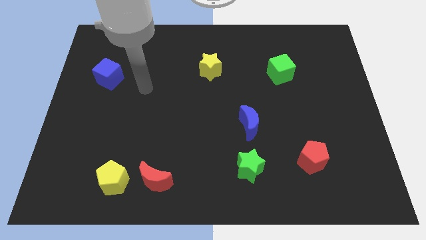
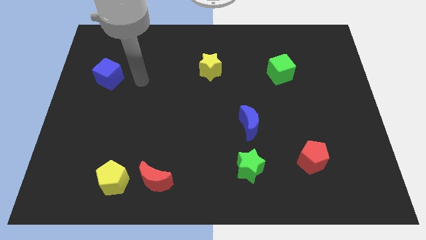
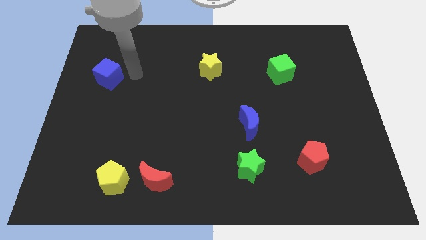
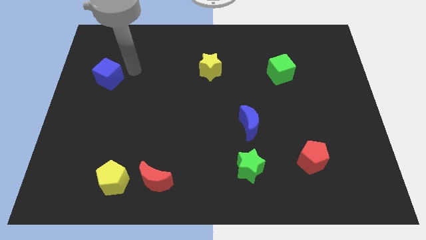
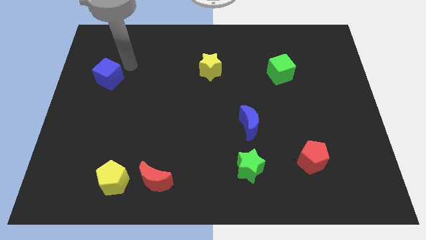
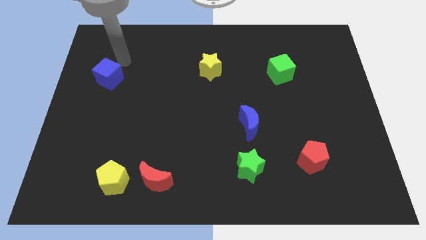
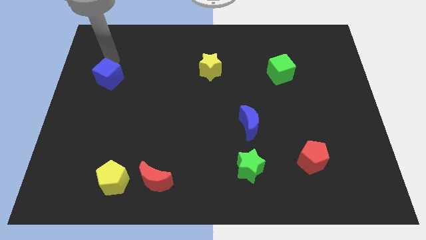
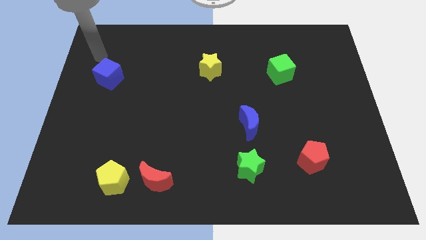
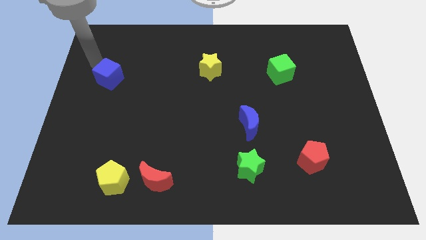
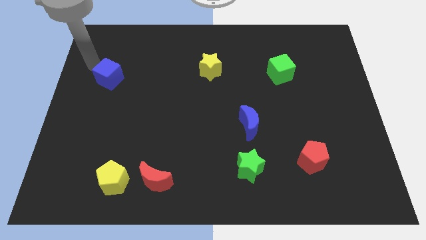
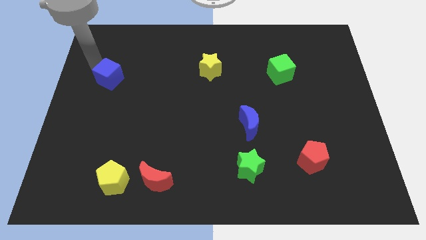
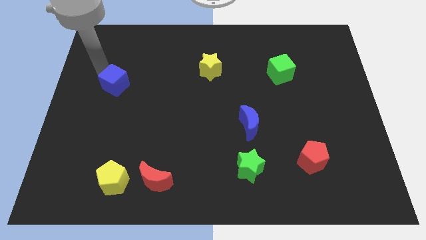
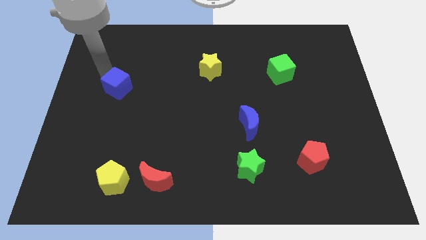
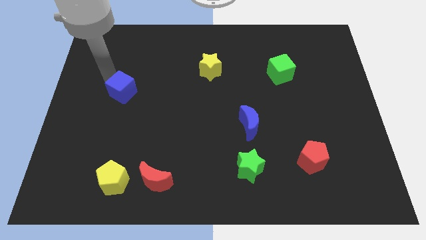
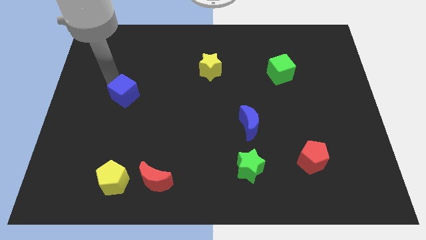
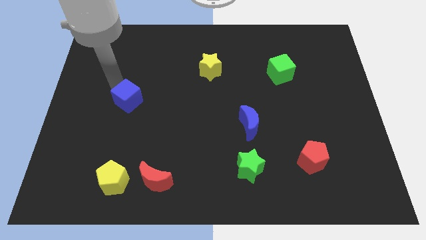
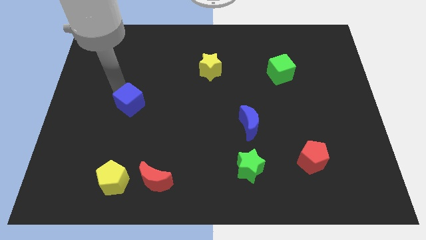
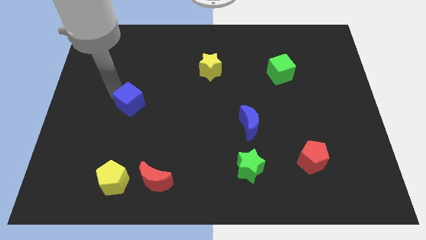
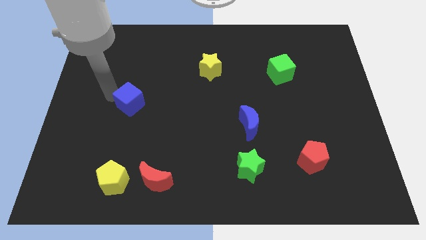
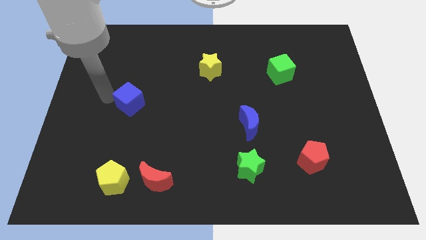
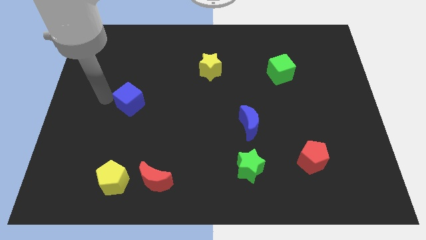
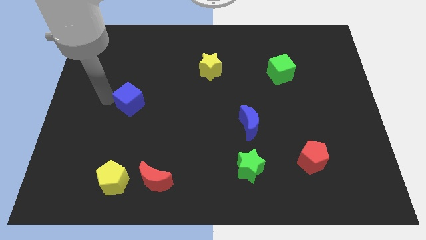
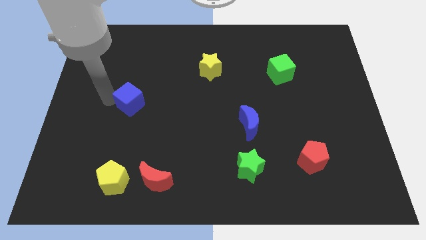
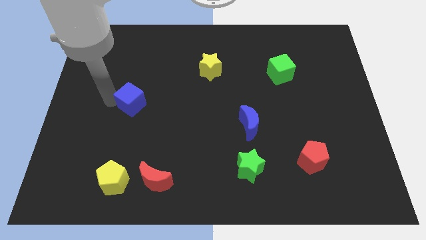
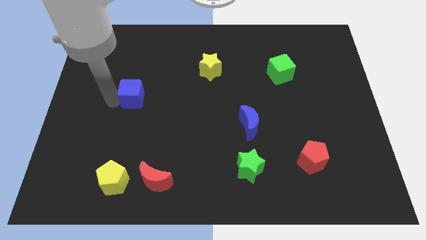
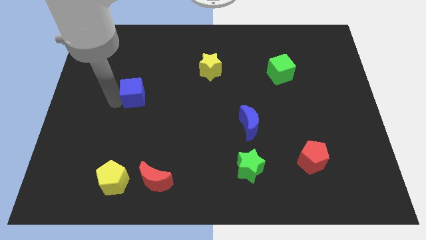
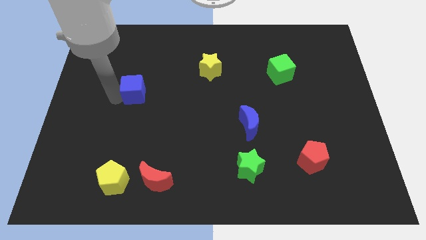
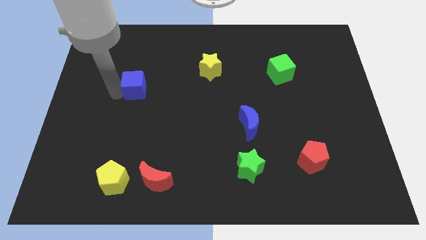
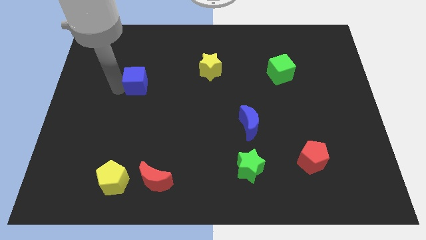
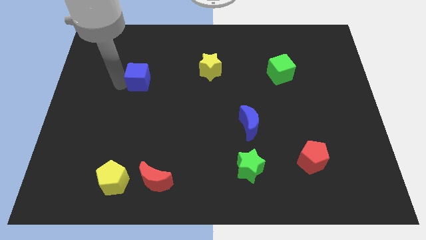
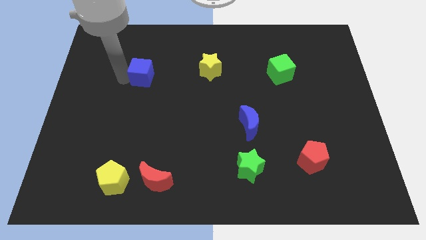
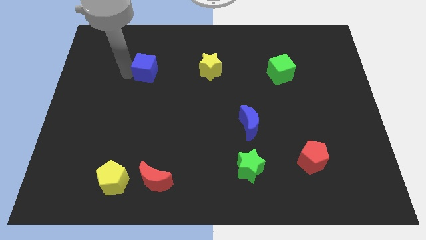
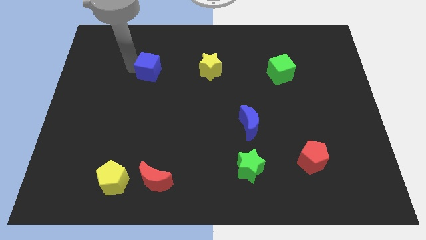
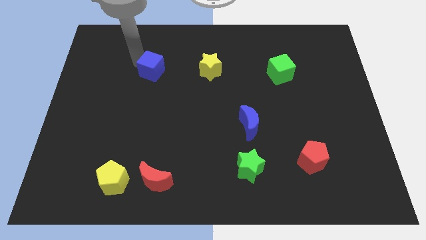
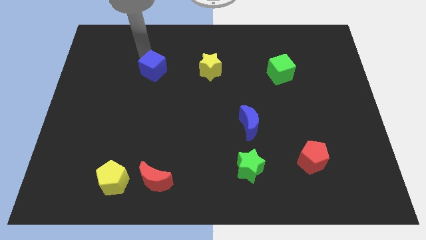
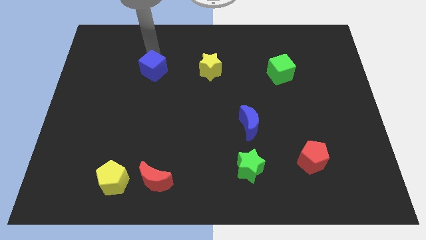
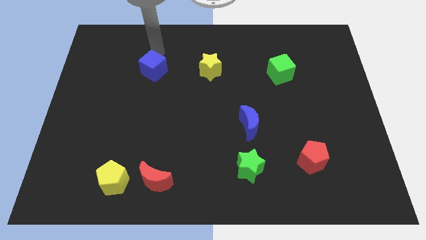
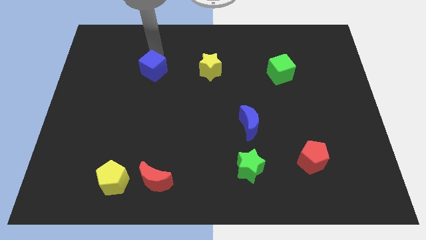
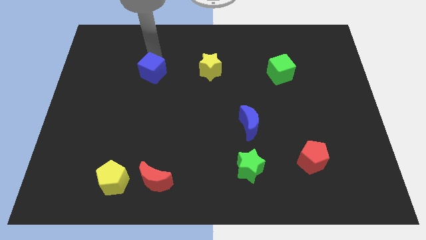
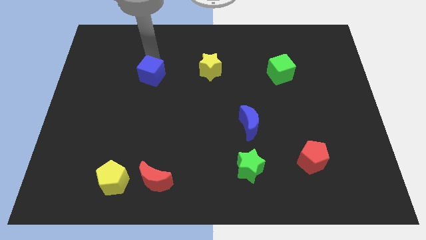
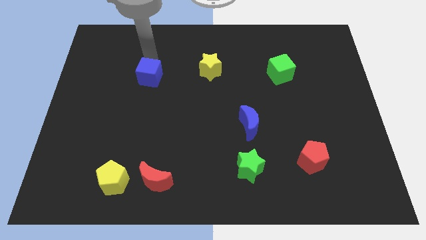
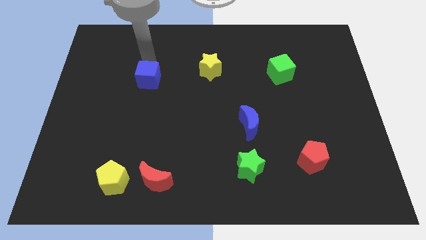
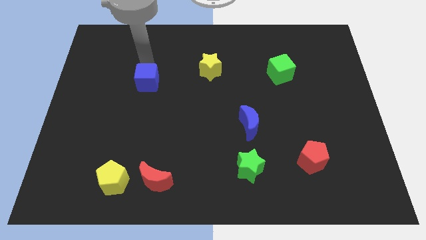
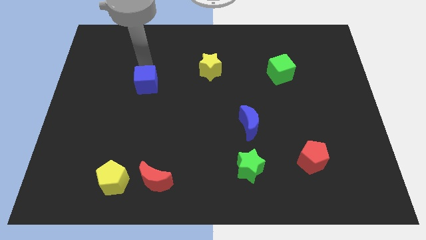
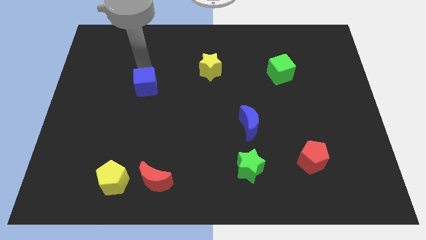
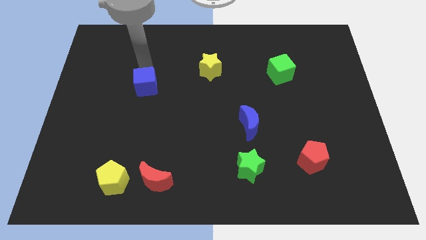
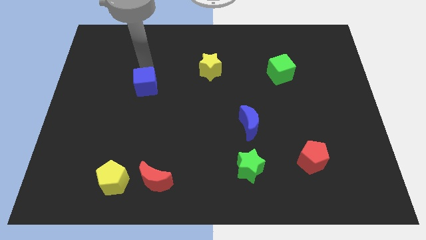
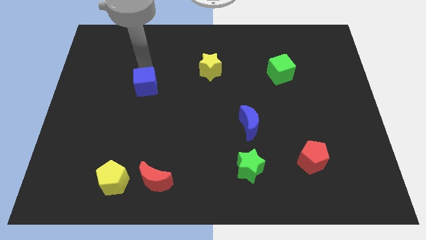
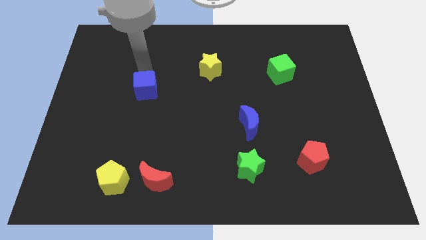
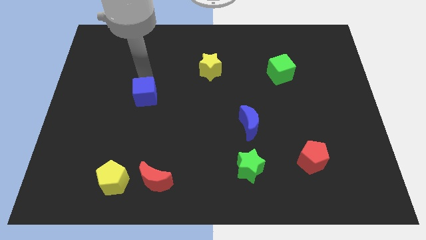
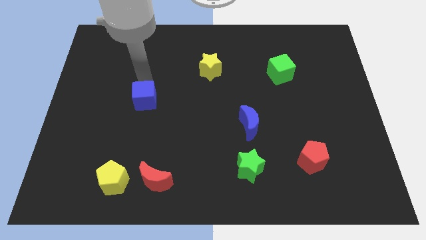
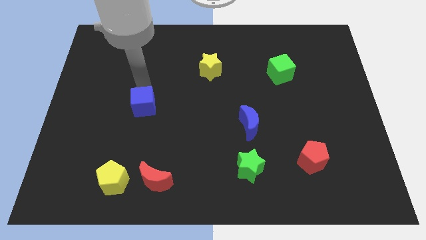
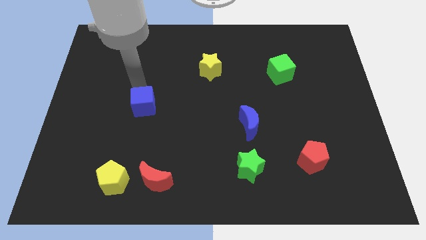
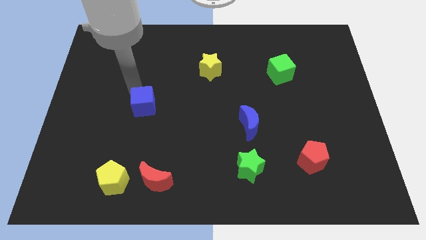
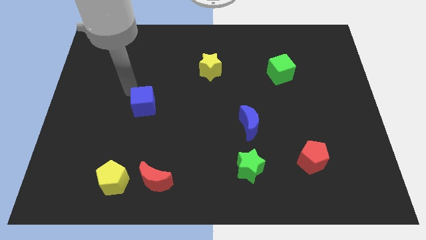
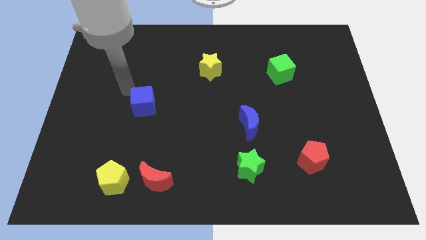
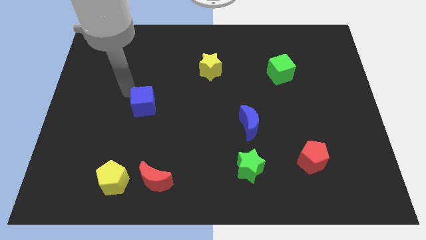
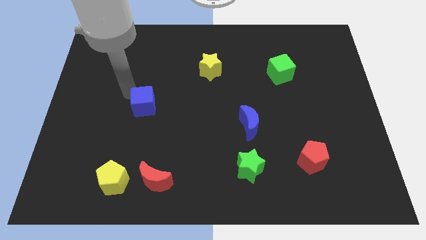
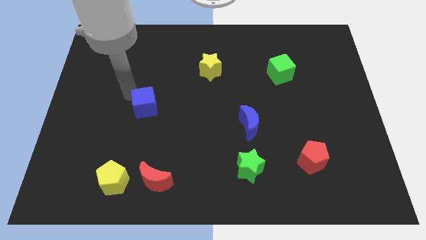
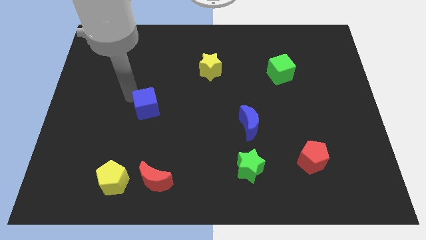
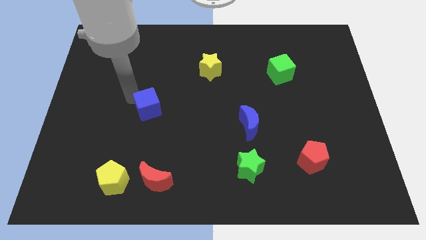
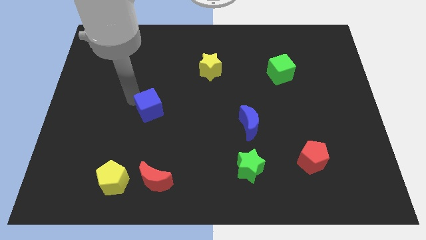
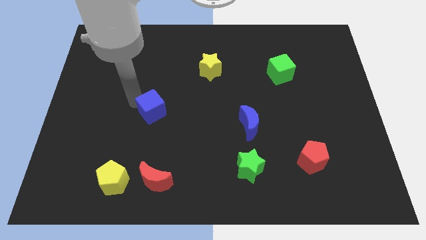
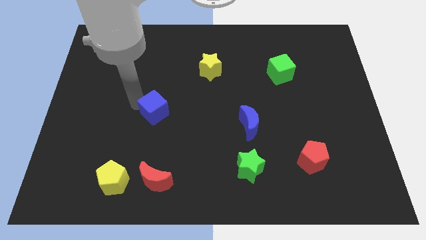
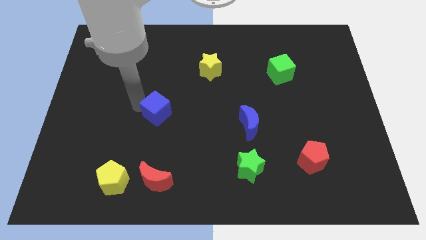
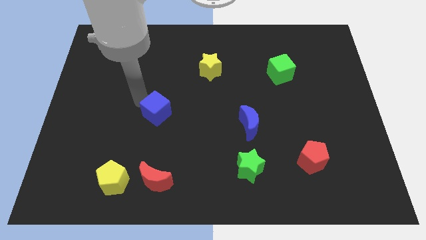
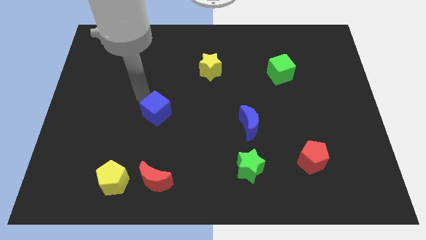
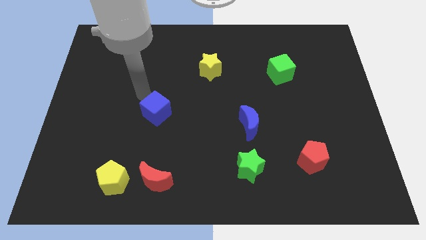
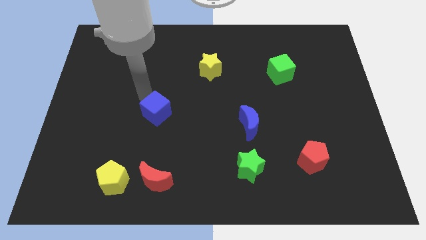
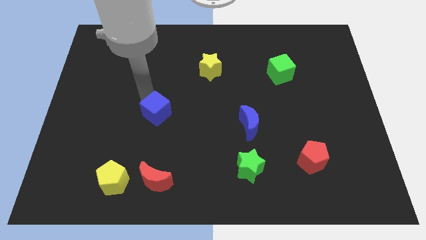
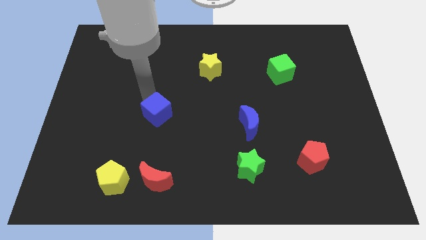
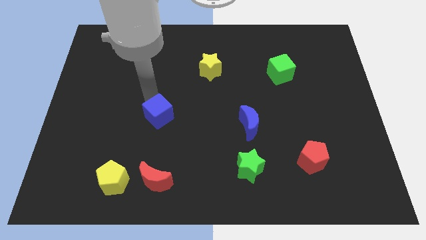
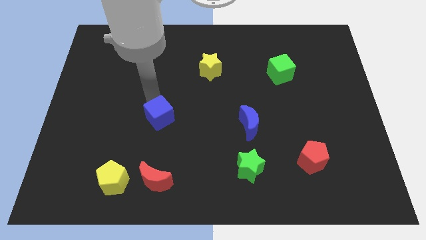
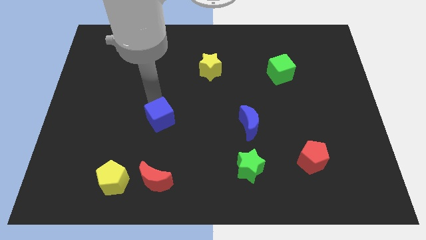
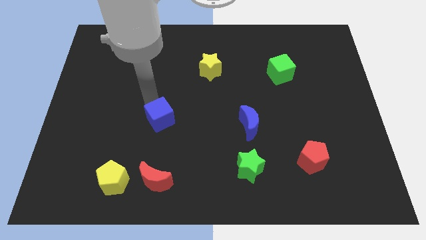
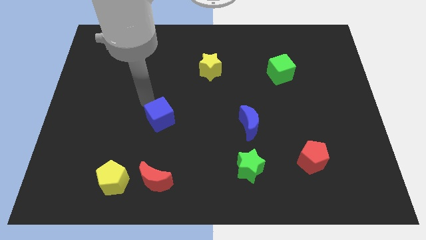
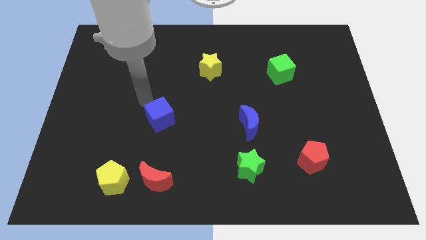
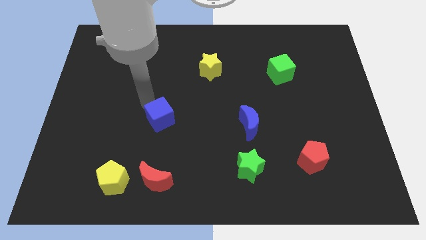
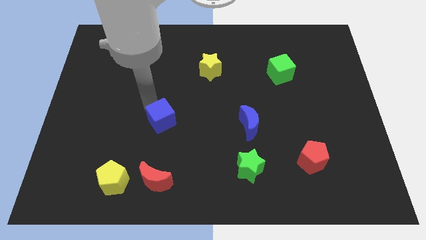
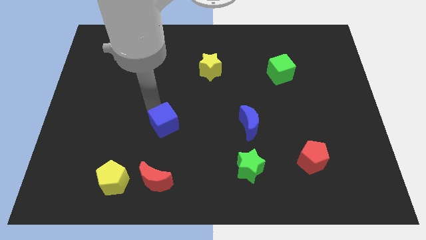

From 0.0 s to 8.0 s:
push the blue cube diagonally downwards and to the right

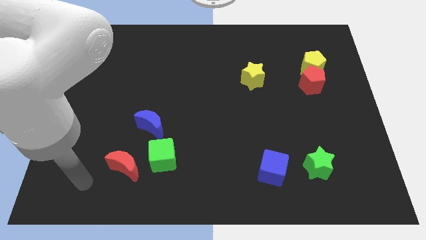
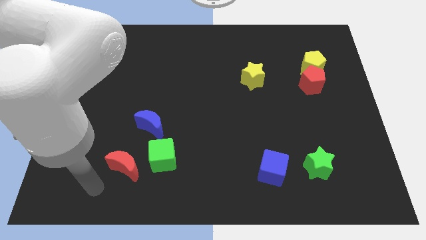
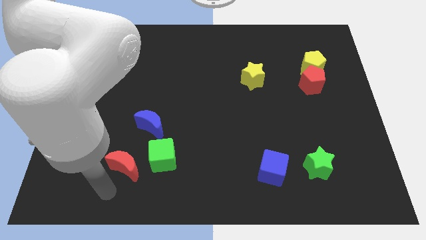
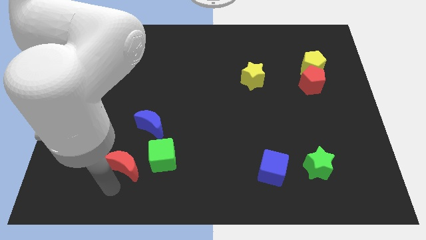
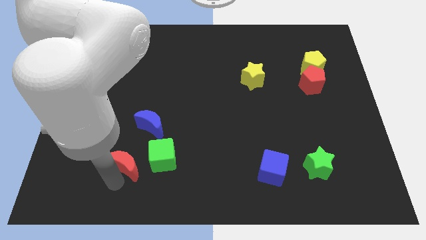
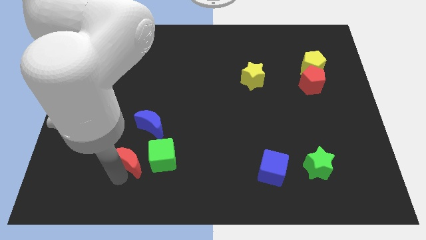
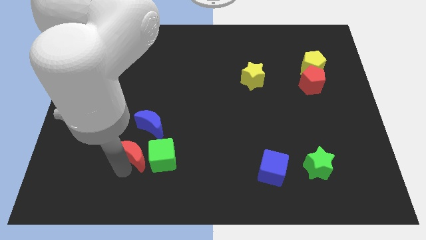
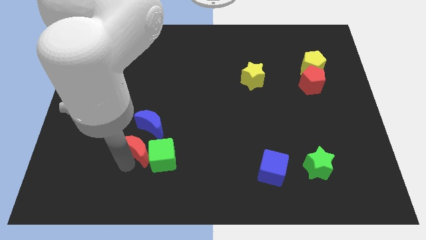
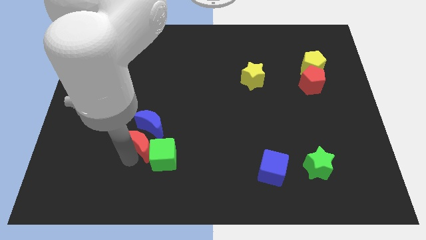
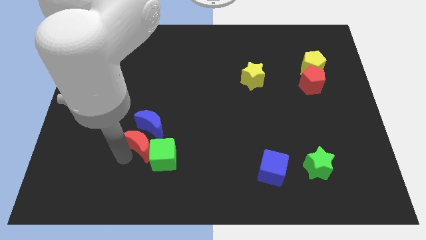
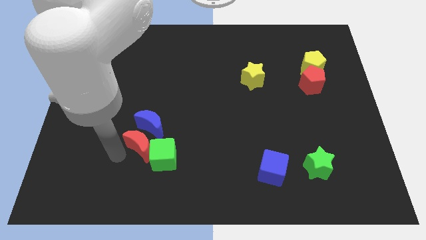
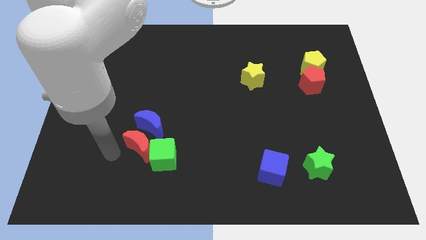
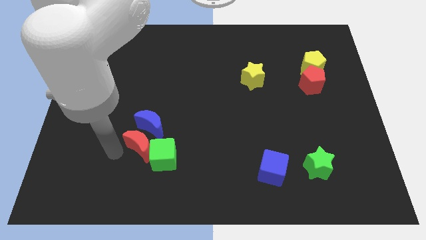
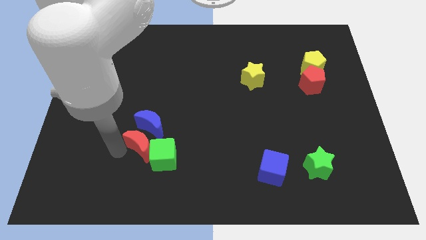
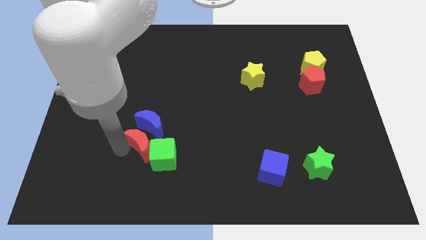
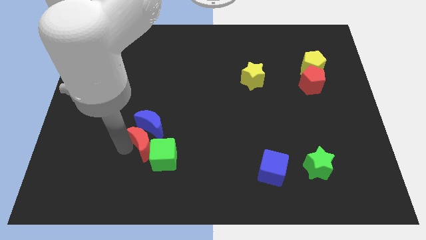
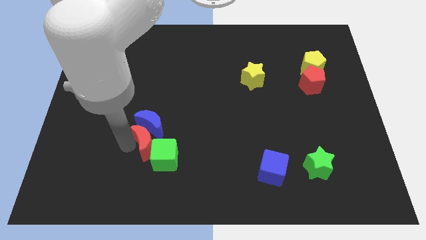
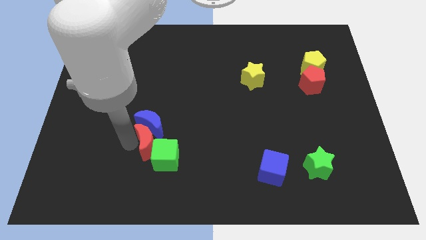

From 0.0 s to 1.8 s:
slightly slide the red moon diagonally up and to the right
